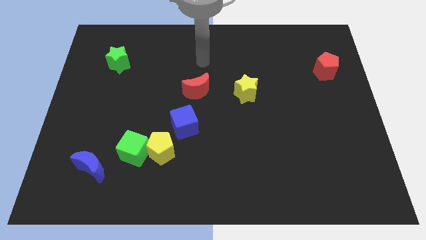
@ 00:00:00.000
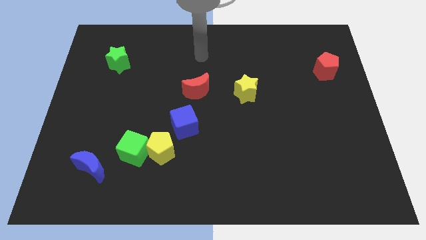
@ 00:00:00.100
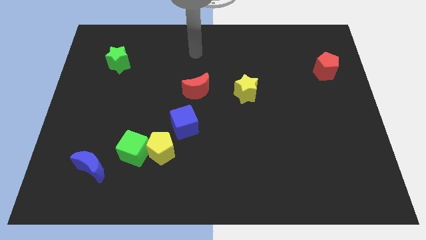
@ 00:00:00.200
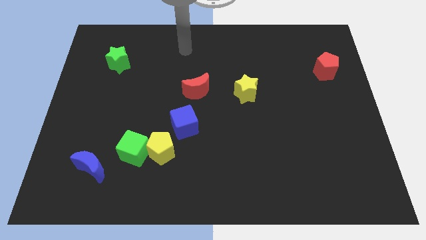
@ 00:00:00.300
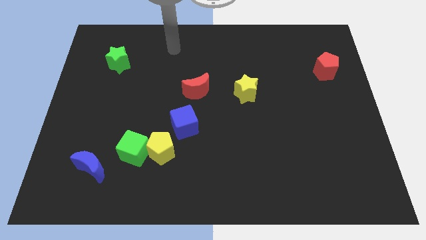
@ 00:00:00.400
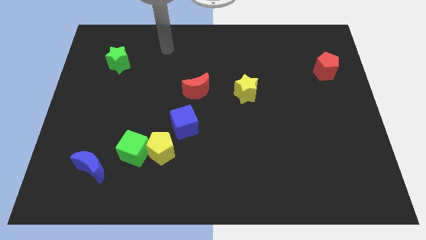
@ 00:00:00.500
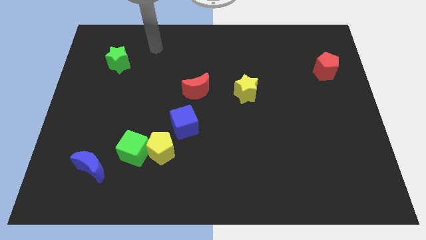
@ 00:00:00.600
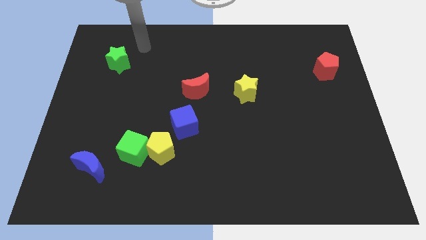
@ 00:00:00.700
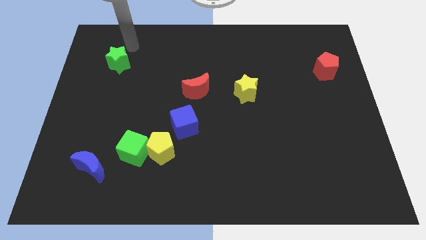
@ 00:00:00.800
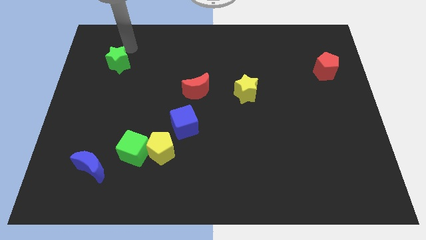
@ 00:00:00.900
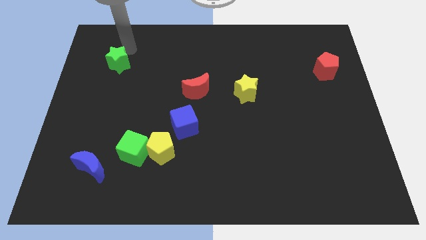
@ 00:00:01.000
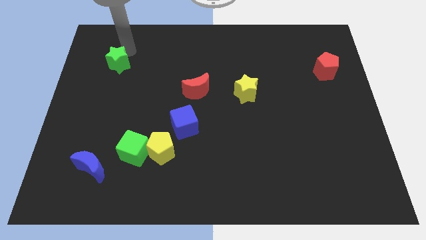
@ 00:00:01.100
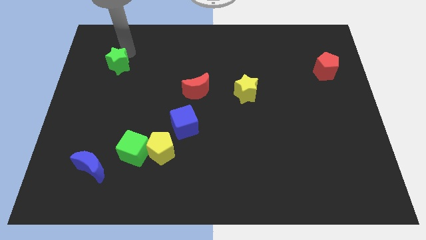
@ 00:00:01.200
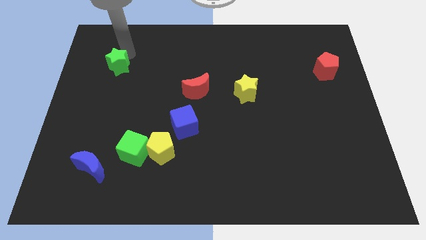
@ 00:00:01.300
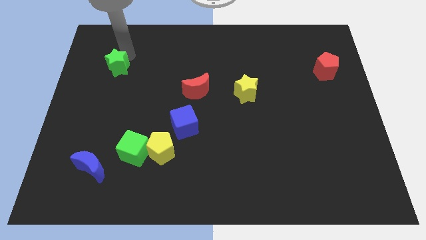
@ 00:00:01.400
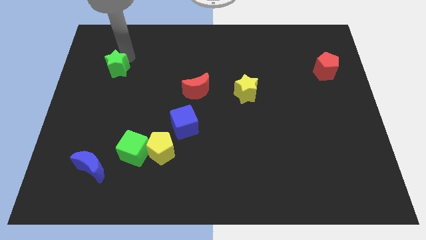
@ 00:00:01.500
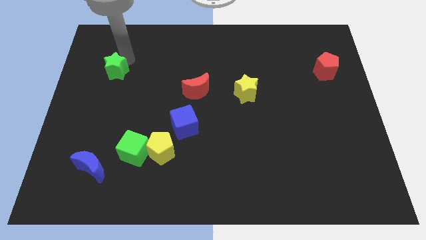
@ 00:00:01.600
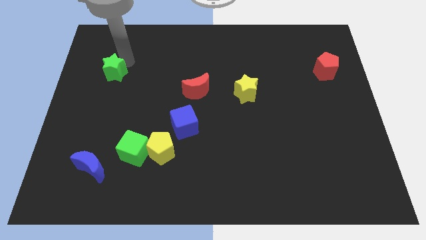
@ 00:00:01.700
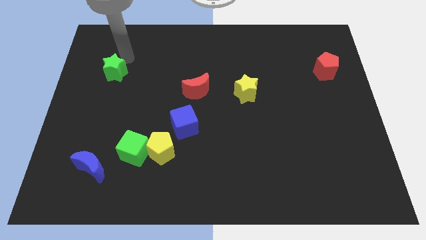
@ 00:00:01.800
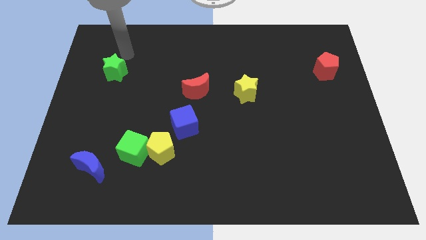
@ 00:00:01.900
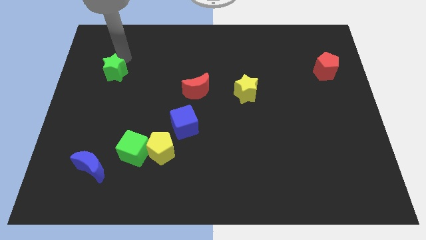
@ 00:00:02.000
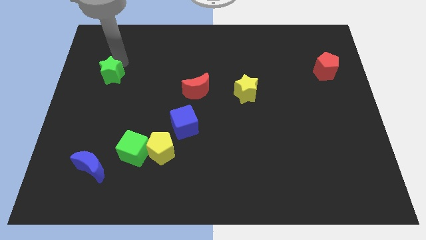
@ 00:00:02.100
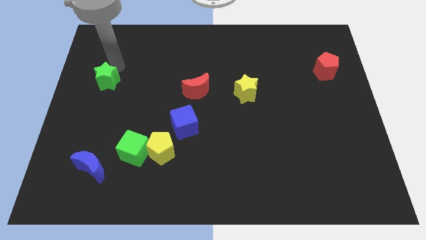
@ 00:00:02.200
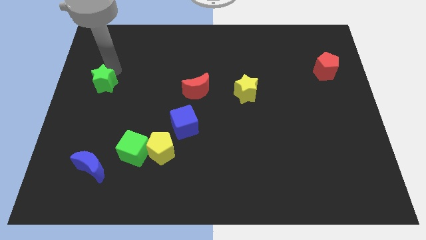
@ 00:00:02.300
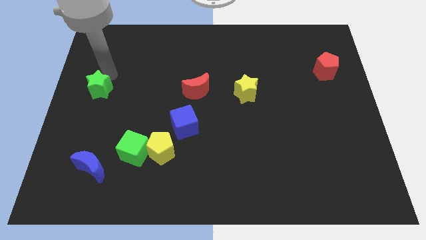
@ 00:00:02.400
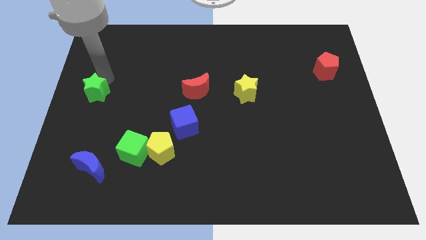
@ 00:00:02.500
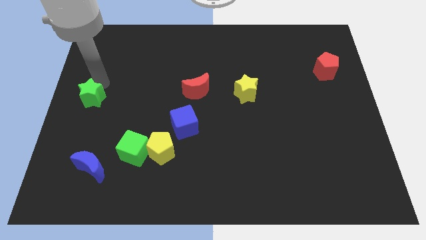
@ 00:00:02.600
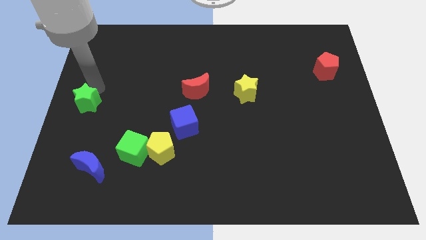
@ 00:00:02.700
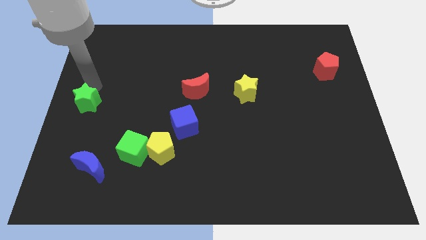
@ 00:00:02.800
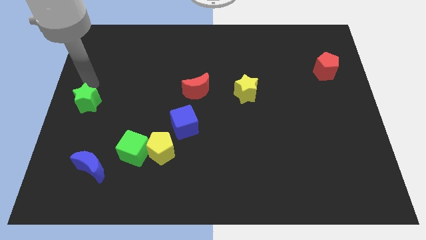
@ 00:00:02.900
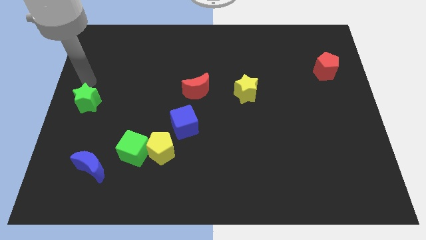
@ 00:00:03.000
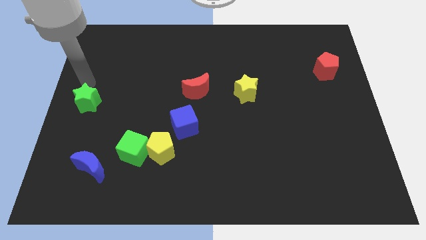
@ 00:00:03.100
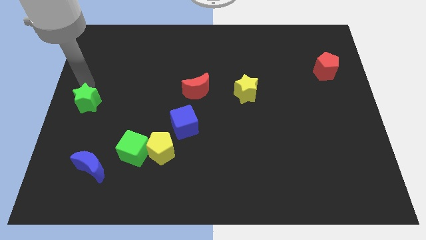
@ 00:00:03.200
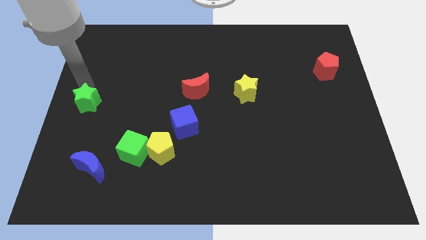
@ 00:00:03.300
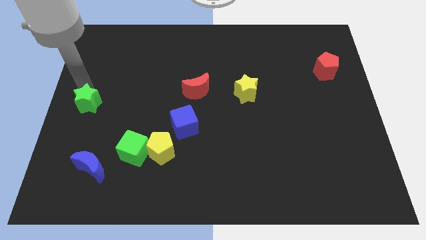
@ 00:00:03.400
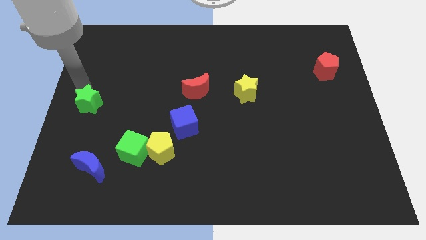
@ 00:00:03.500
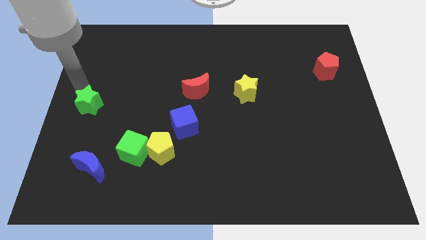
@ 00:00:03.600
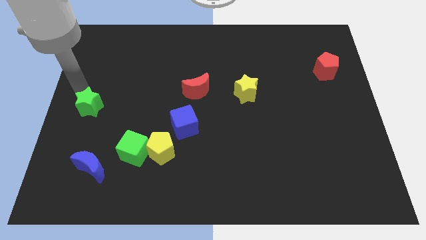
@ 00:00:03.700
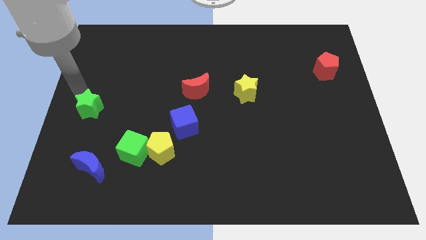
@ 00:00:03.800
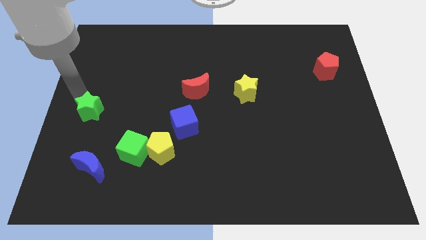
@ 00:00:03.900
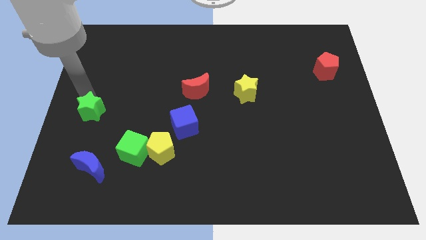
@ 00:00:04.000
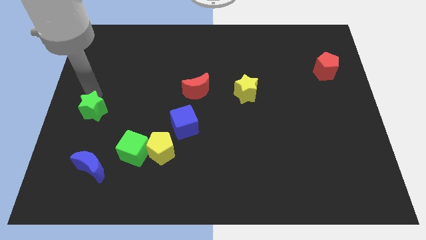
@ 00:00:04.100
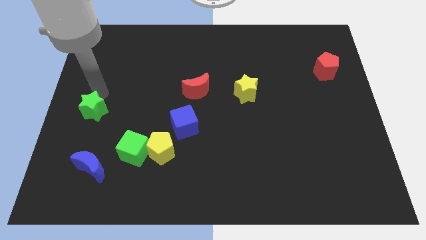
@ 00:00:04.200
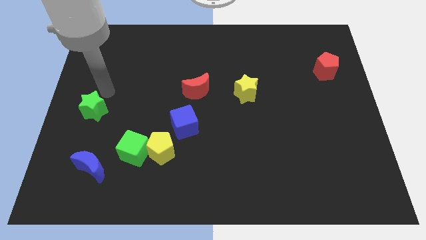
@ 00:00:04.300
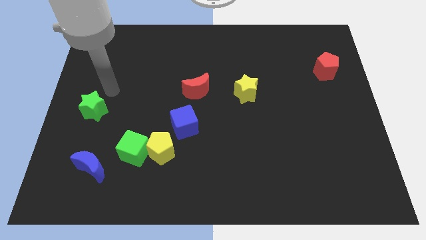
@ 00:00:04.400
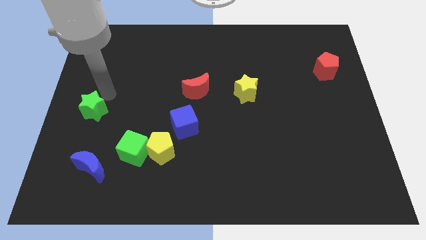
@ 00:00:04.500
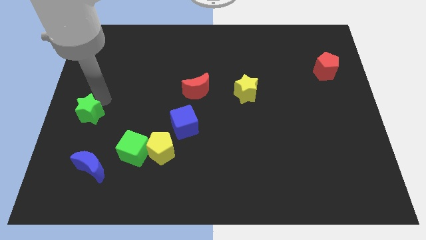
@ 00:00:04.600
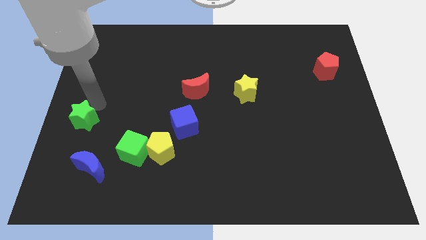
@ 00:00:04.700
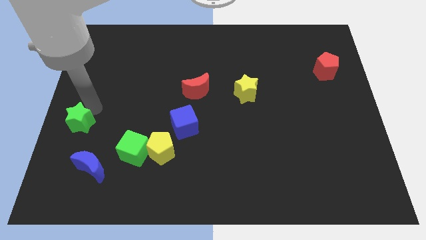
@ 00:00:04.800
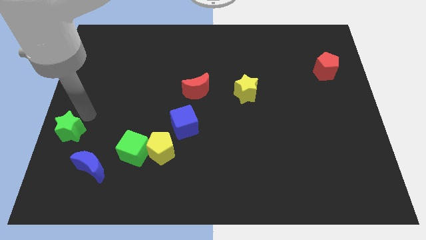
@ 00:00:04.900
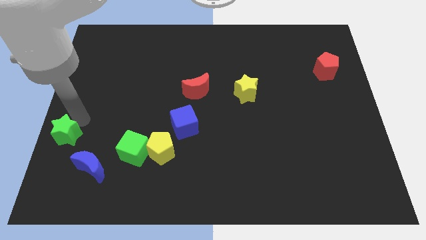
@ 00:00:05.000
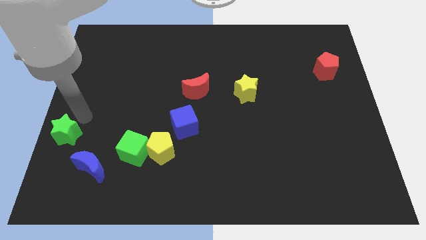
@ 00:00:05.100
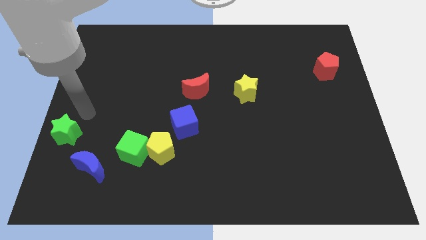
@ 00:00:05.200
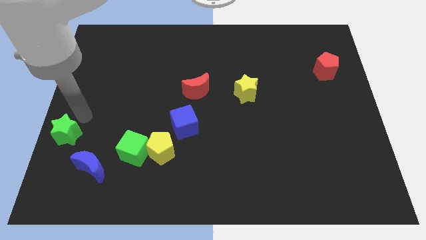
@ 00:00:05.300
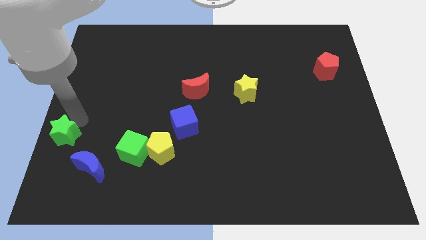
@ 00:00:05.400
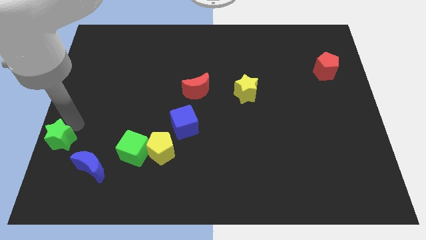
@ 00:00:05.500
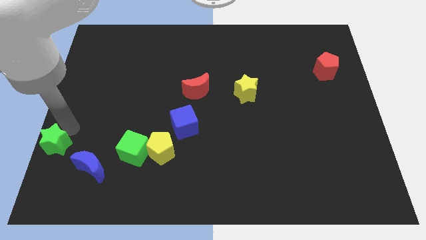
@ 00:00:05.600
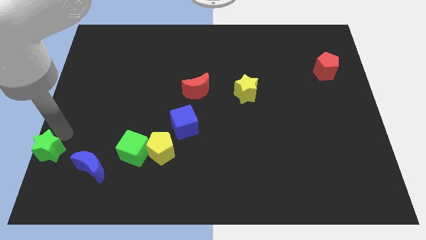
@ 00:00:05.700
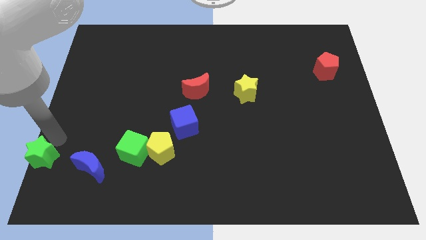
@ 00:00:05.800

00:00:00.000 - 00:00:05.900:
move the green star to the lower left corner

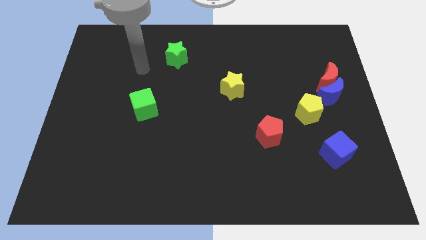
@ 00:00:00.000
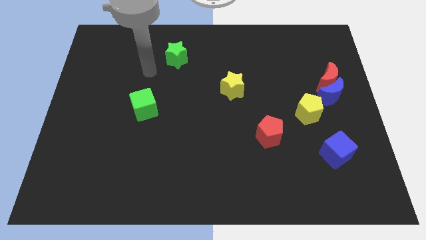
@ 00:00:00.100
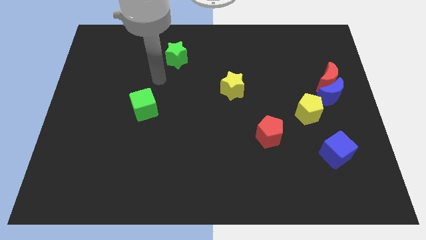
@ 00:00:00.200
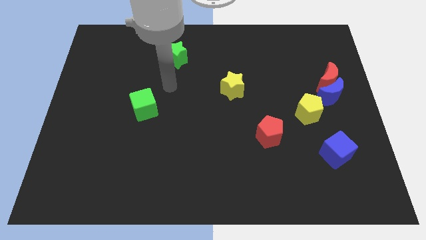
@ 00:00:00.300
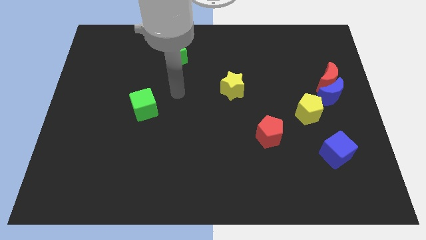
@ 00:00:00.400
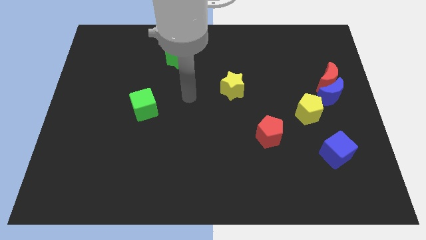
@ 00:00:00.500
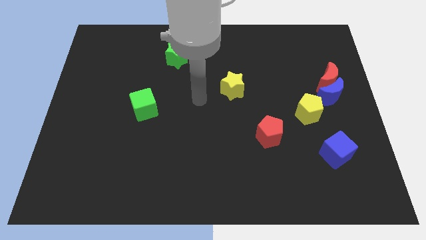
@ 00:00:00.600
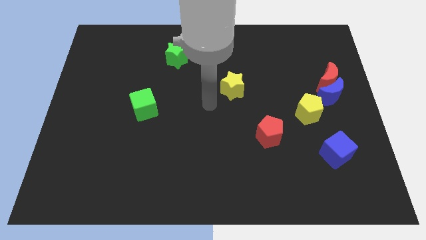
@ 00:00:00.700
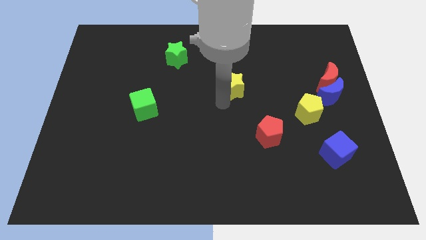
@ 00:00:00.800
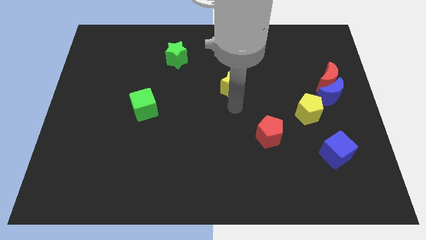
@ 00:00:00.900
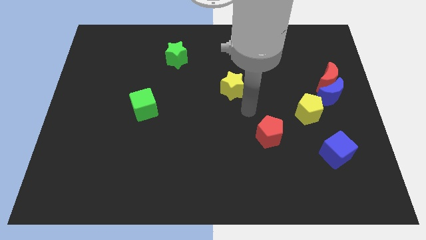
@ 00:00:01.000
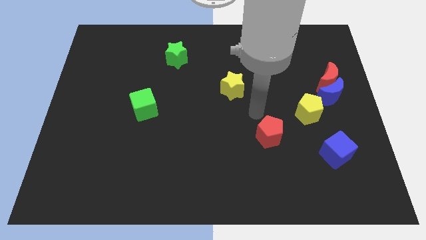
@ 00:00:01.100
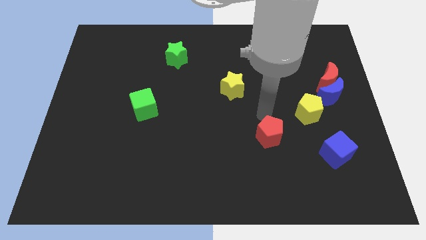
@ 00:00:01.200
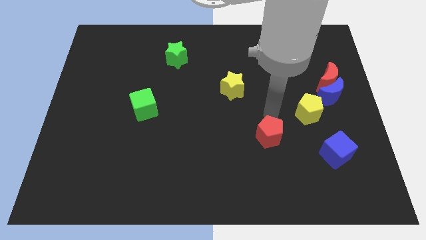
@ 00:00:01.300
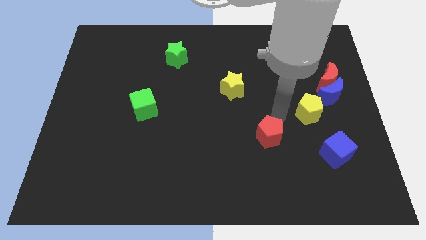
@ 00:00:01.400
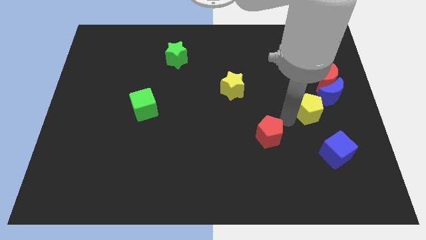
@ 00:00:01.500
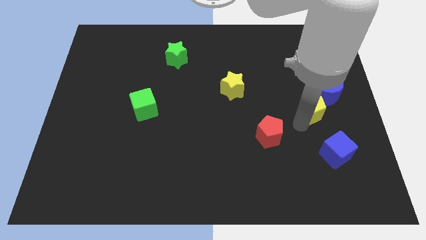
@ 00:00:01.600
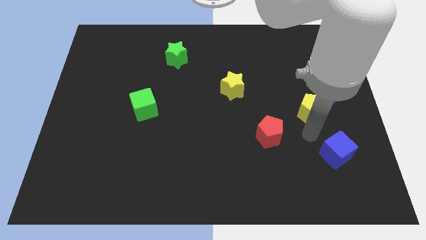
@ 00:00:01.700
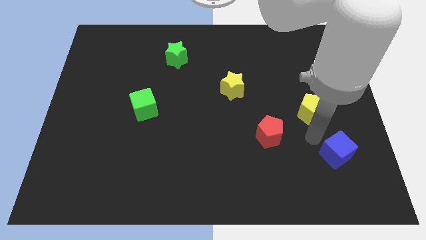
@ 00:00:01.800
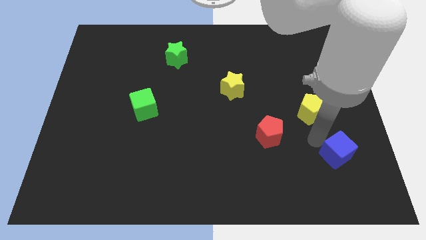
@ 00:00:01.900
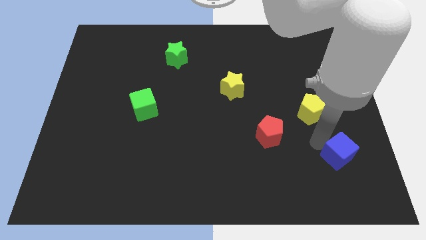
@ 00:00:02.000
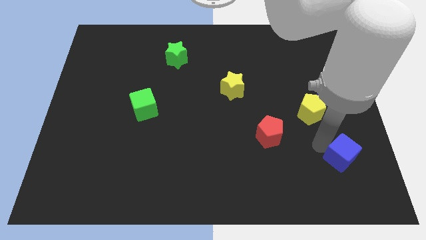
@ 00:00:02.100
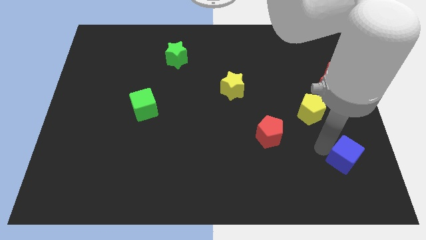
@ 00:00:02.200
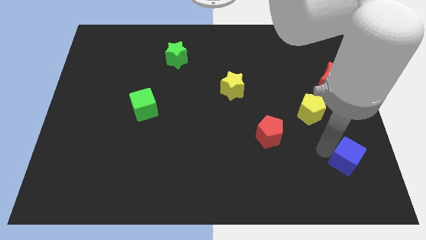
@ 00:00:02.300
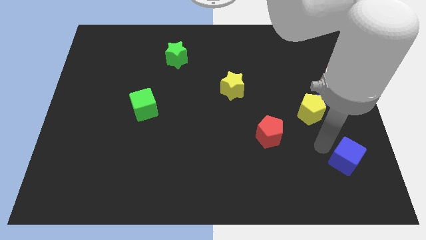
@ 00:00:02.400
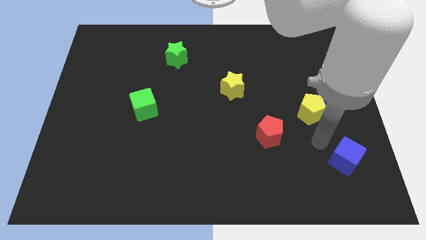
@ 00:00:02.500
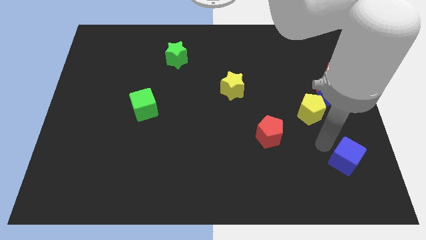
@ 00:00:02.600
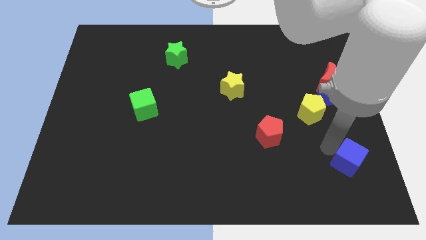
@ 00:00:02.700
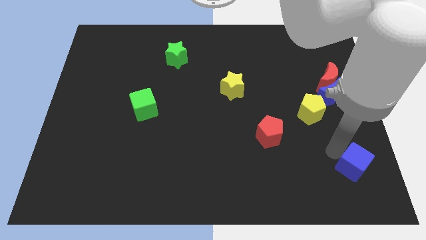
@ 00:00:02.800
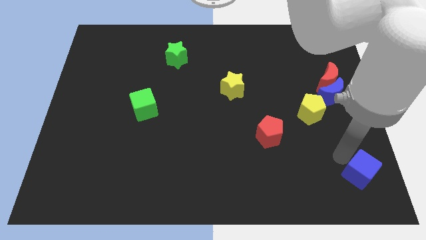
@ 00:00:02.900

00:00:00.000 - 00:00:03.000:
move the blue cube to the bottom right
